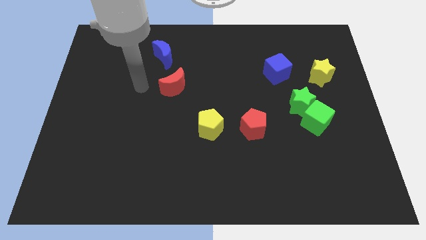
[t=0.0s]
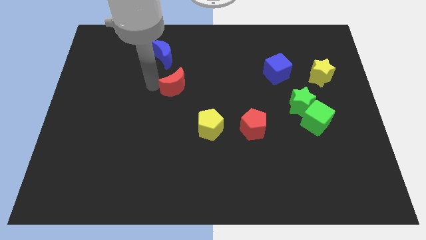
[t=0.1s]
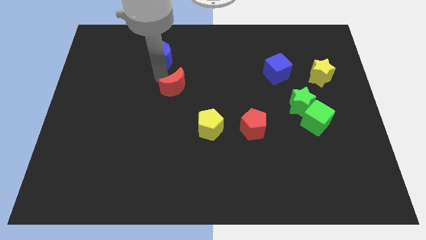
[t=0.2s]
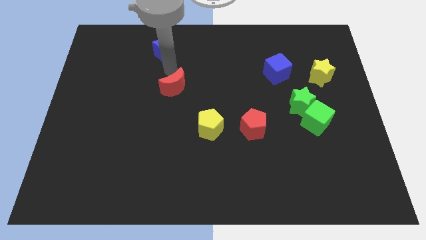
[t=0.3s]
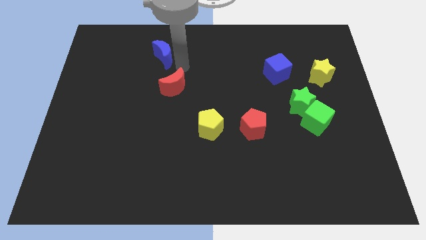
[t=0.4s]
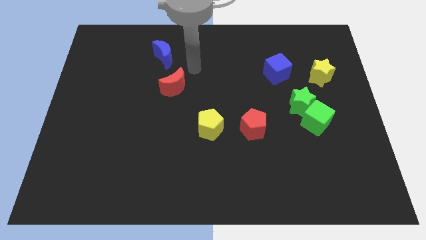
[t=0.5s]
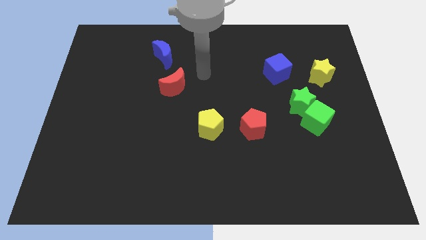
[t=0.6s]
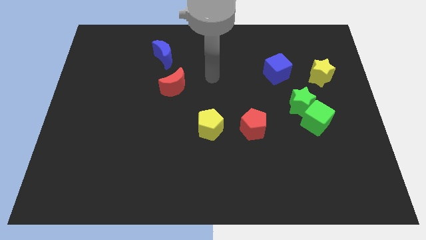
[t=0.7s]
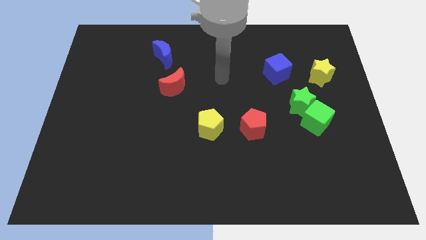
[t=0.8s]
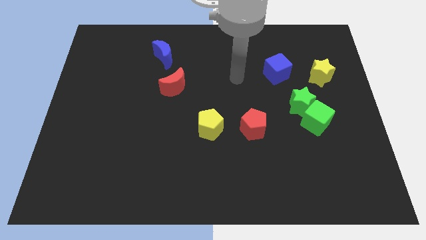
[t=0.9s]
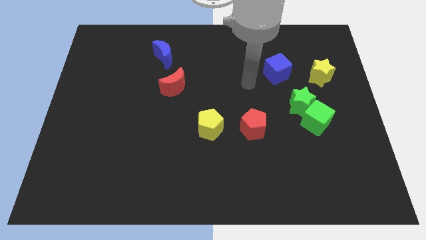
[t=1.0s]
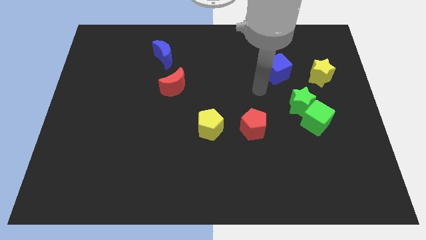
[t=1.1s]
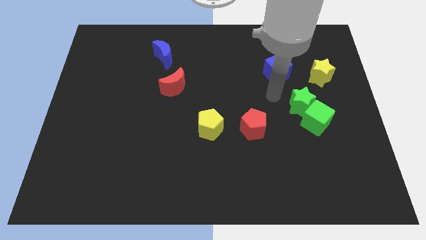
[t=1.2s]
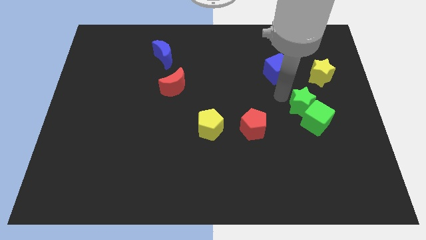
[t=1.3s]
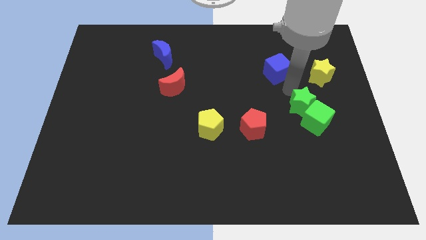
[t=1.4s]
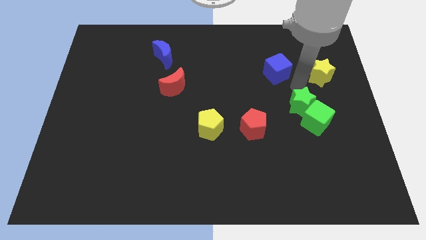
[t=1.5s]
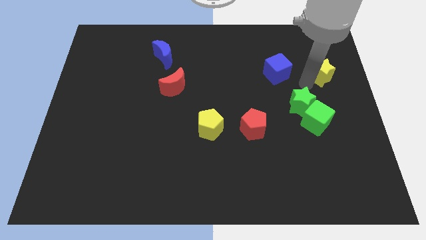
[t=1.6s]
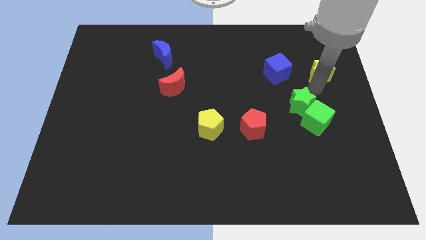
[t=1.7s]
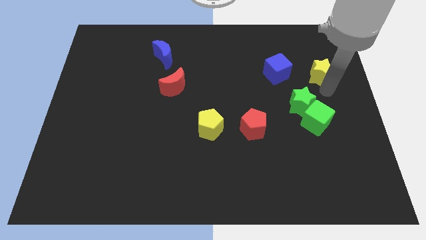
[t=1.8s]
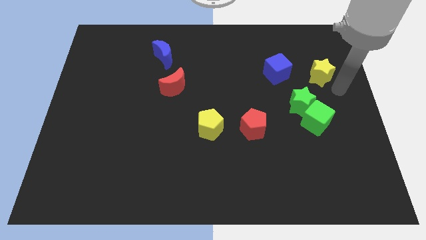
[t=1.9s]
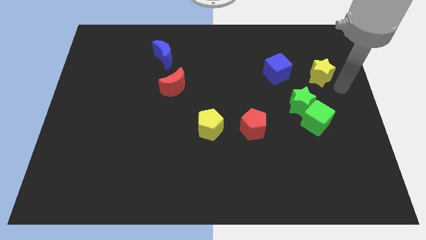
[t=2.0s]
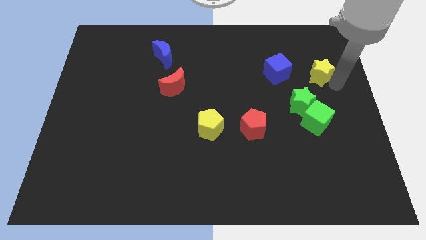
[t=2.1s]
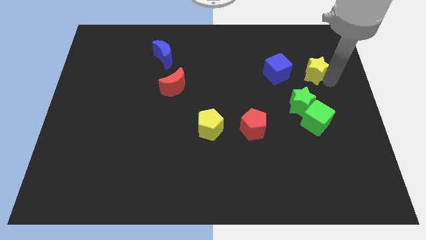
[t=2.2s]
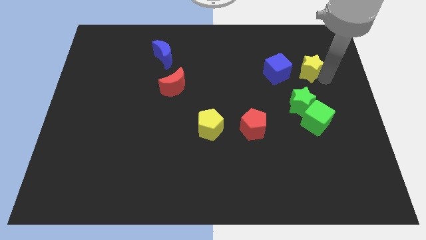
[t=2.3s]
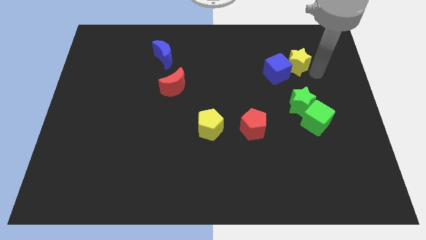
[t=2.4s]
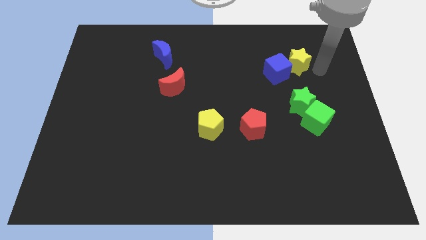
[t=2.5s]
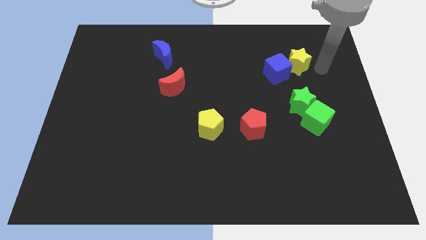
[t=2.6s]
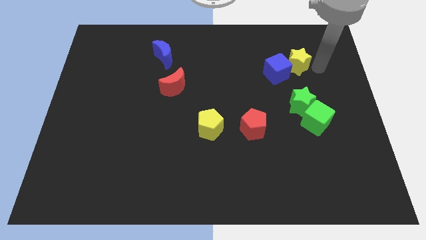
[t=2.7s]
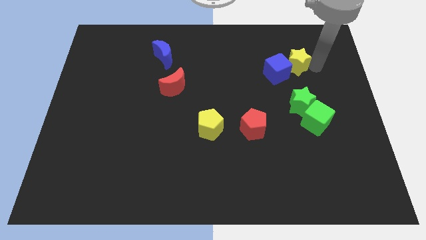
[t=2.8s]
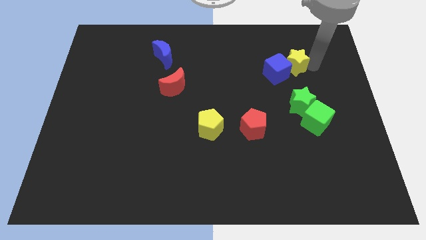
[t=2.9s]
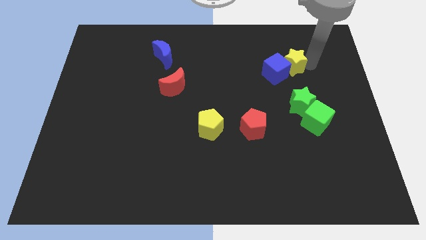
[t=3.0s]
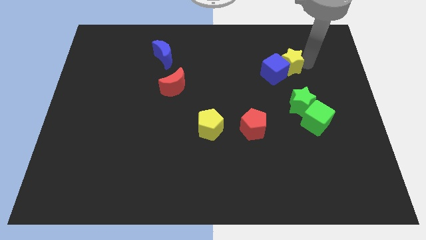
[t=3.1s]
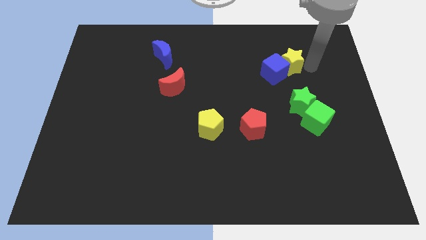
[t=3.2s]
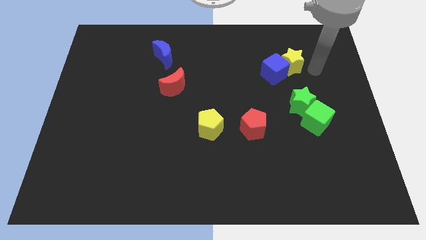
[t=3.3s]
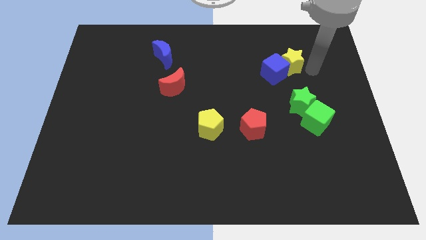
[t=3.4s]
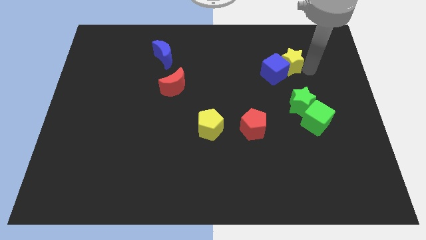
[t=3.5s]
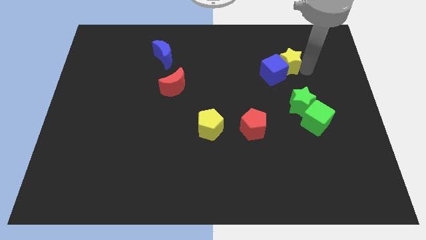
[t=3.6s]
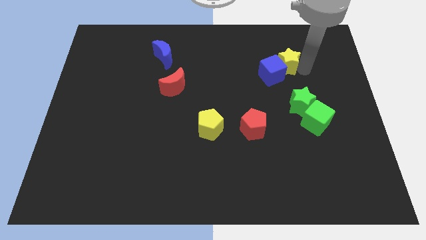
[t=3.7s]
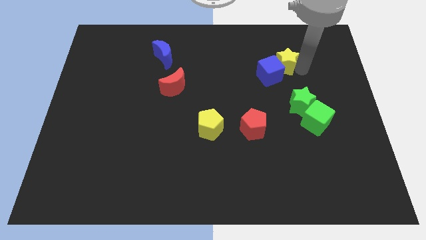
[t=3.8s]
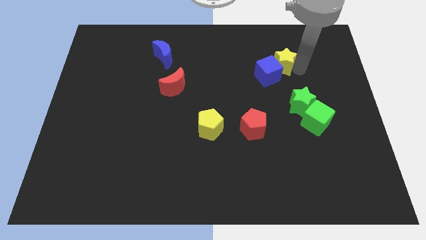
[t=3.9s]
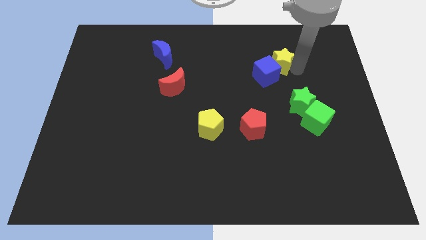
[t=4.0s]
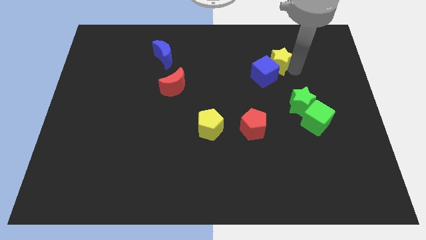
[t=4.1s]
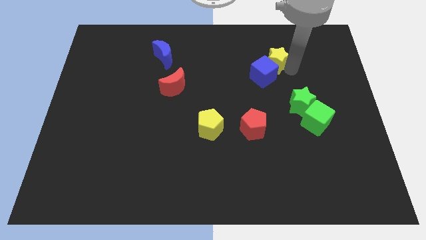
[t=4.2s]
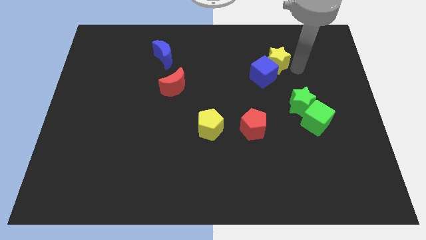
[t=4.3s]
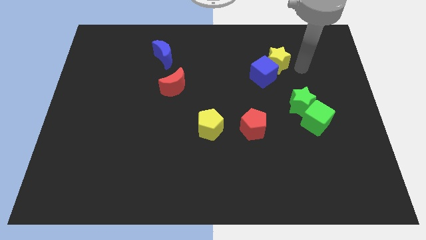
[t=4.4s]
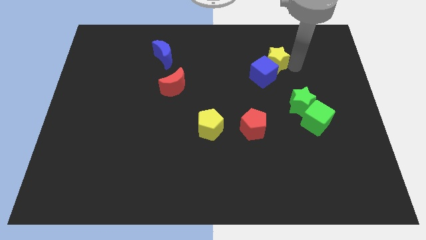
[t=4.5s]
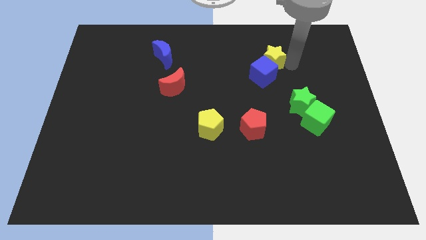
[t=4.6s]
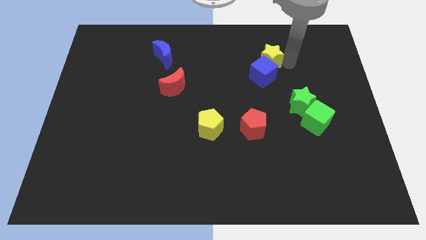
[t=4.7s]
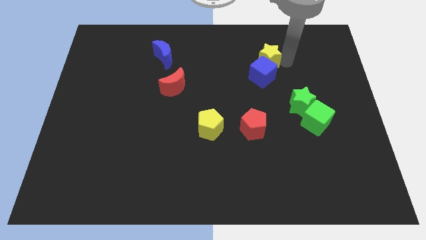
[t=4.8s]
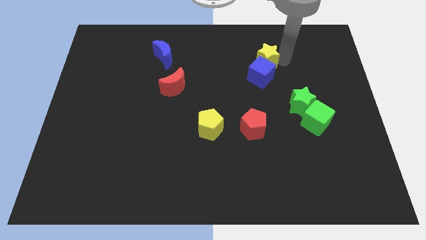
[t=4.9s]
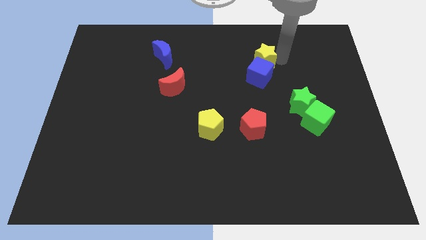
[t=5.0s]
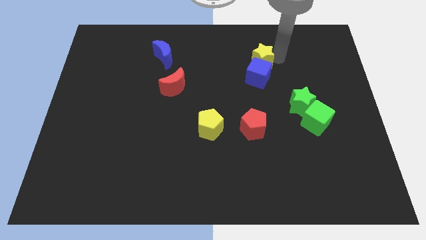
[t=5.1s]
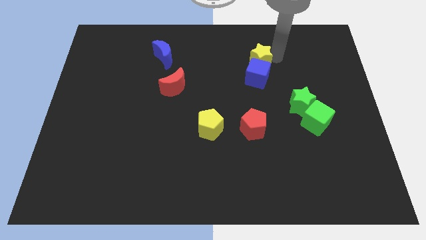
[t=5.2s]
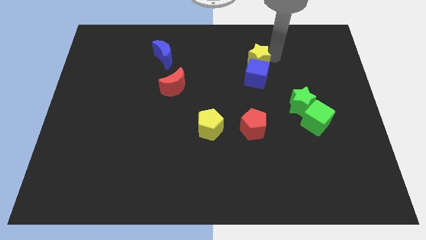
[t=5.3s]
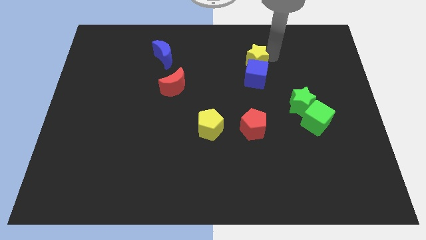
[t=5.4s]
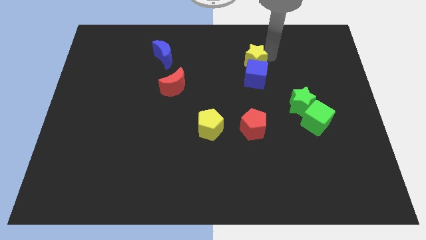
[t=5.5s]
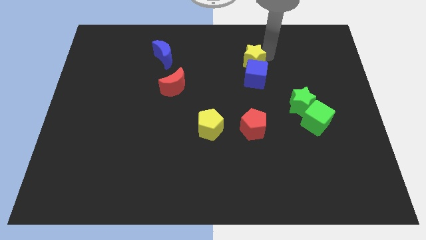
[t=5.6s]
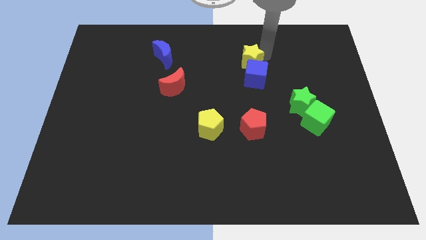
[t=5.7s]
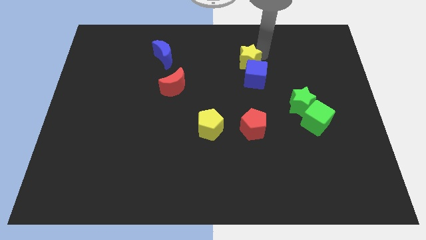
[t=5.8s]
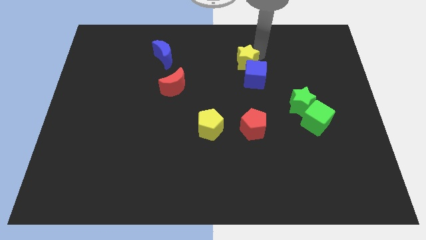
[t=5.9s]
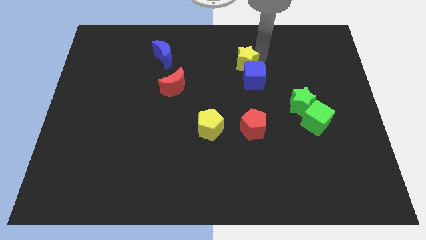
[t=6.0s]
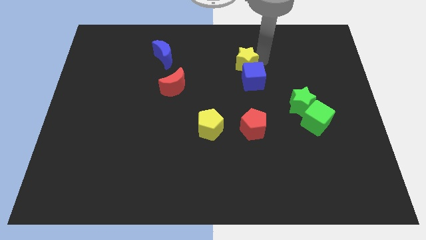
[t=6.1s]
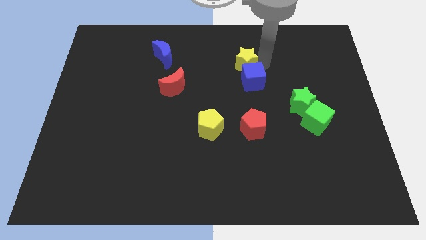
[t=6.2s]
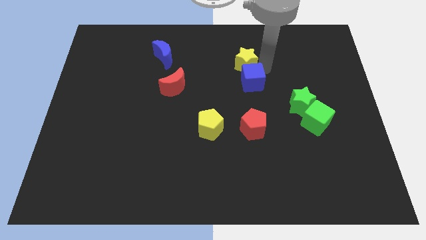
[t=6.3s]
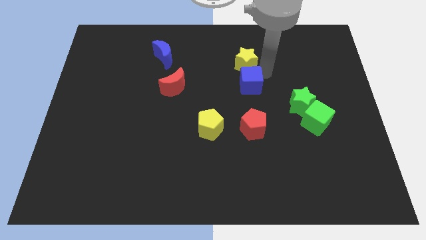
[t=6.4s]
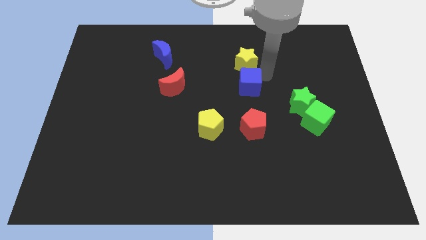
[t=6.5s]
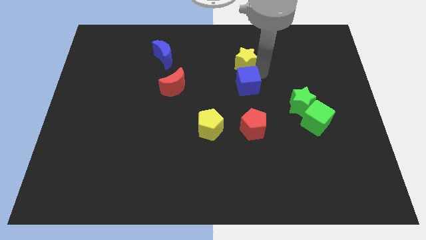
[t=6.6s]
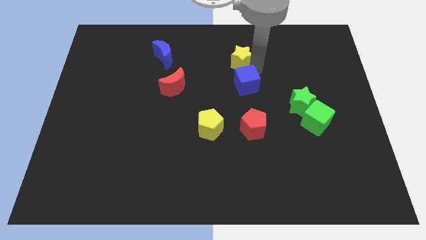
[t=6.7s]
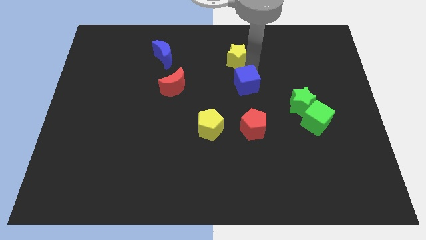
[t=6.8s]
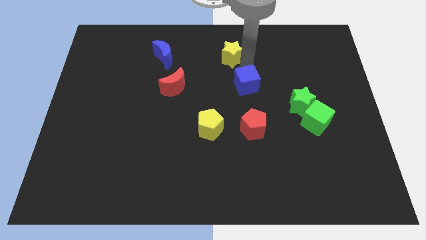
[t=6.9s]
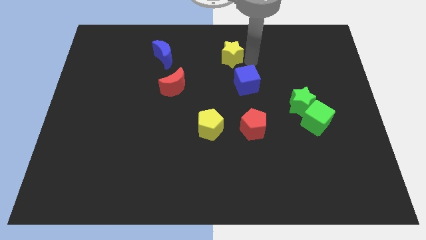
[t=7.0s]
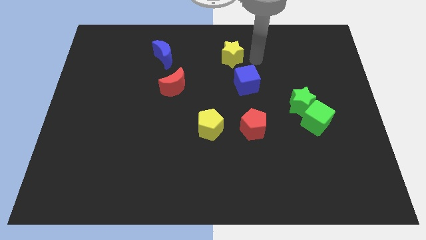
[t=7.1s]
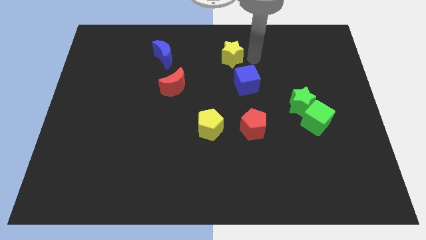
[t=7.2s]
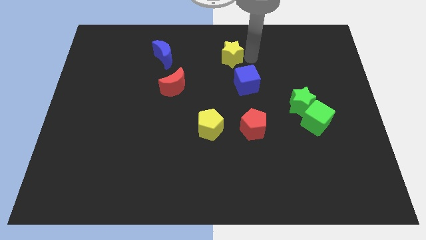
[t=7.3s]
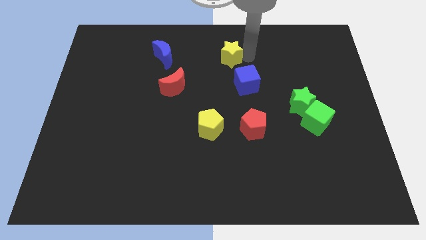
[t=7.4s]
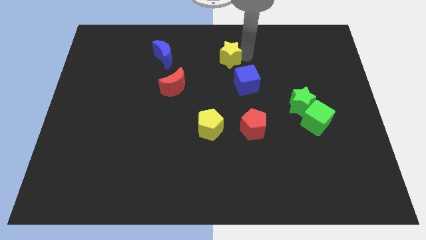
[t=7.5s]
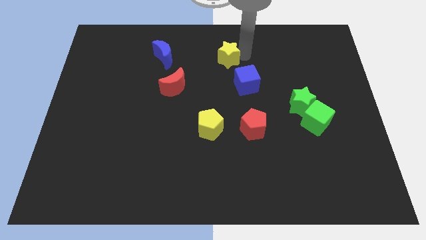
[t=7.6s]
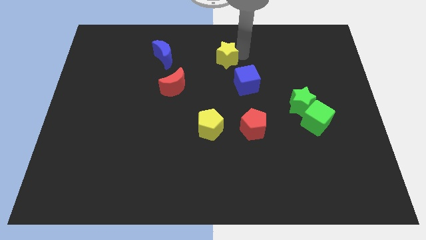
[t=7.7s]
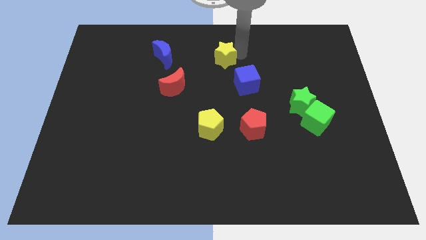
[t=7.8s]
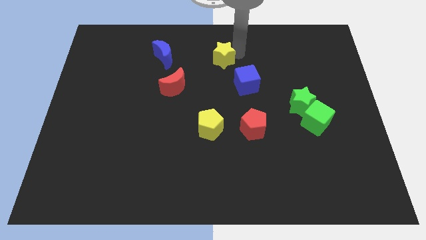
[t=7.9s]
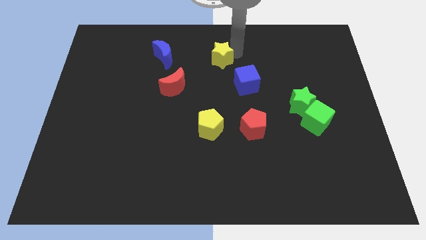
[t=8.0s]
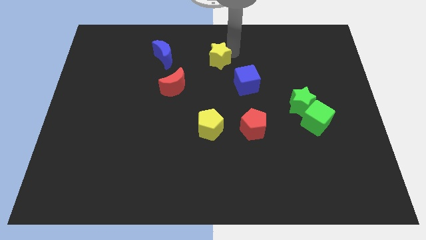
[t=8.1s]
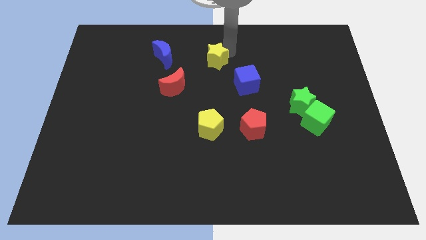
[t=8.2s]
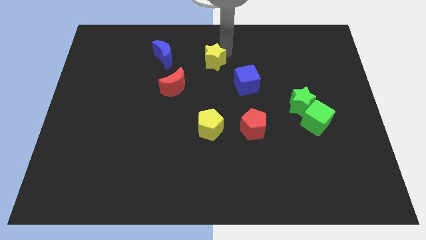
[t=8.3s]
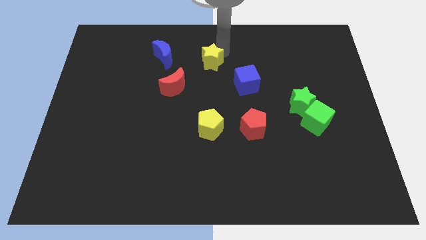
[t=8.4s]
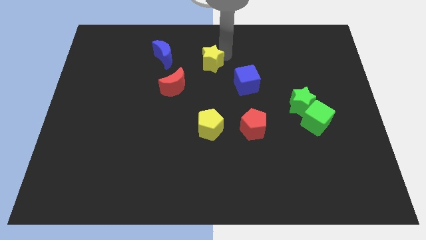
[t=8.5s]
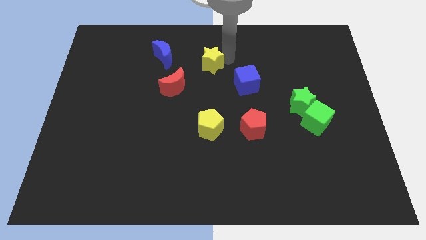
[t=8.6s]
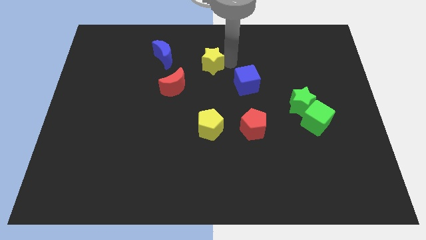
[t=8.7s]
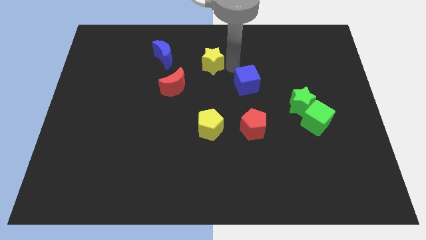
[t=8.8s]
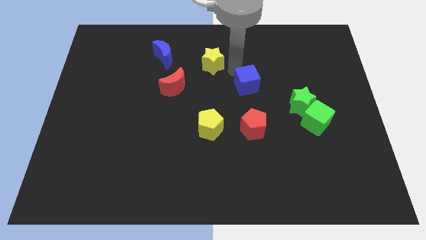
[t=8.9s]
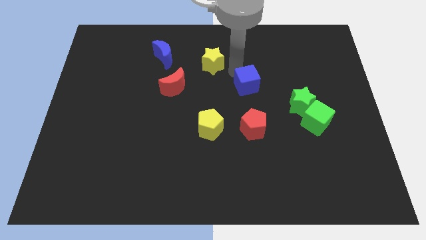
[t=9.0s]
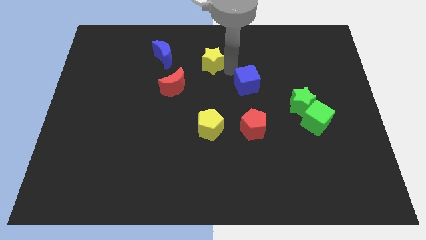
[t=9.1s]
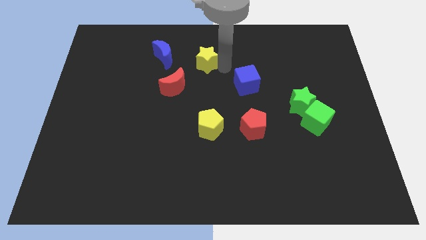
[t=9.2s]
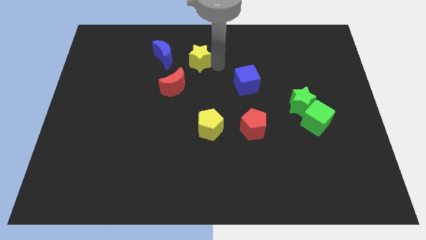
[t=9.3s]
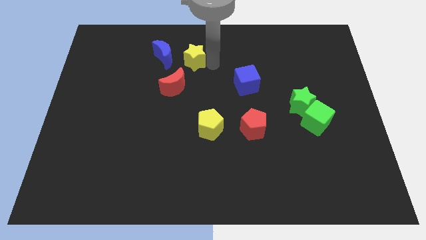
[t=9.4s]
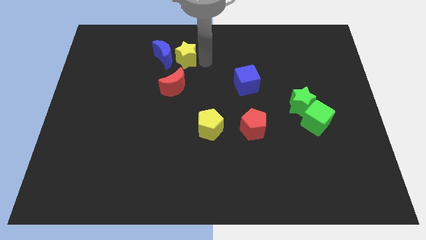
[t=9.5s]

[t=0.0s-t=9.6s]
move the yellow star to the blue moon
